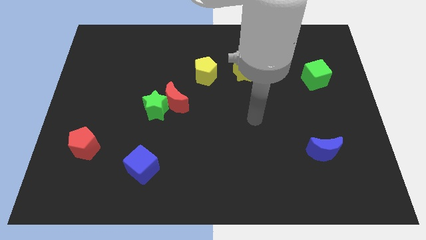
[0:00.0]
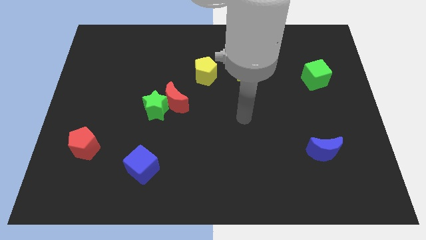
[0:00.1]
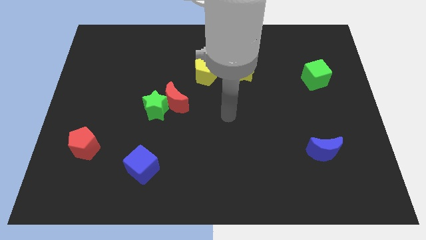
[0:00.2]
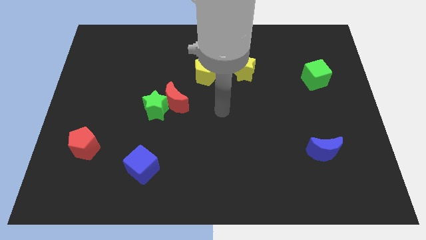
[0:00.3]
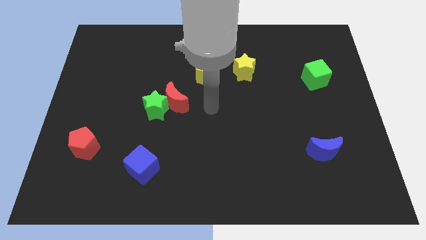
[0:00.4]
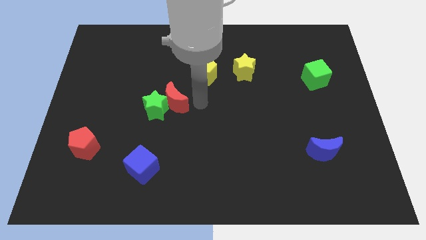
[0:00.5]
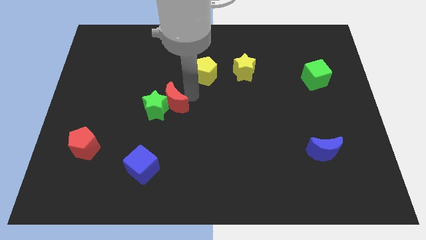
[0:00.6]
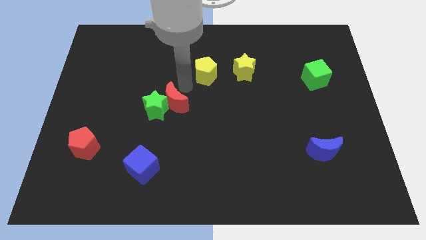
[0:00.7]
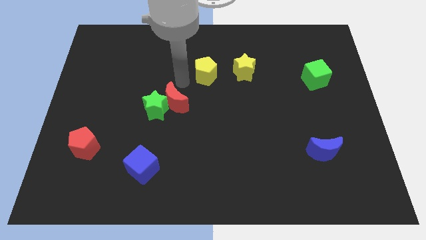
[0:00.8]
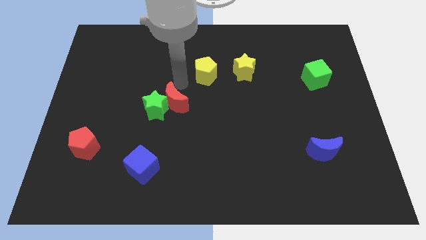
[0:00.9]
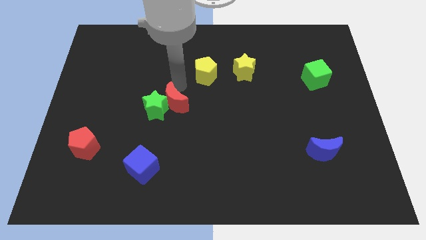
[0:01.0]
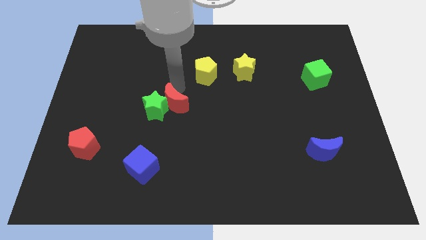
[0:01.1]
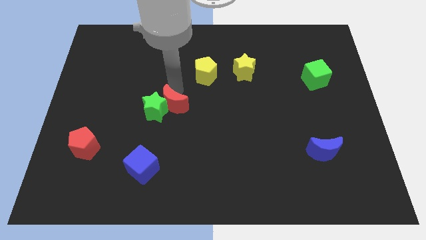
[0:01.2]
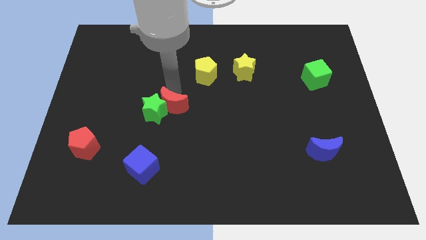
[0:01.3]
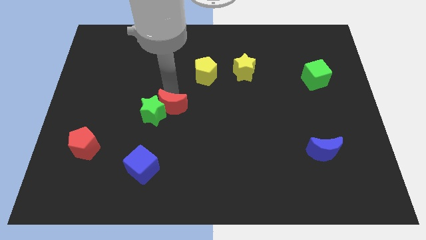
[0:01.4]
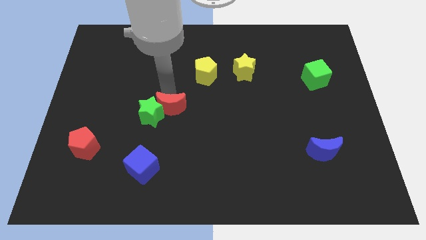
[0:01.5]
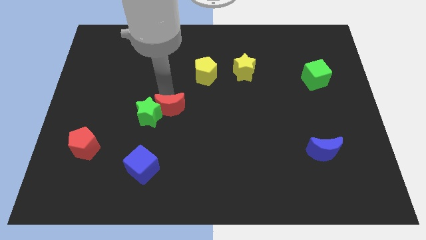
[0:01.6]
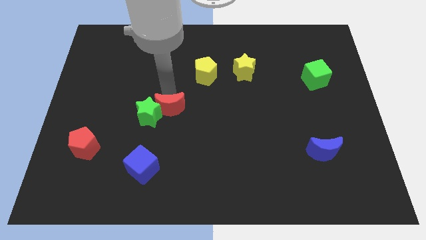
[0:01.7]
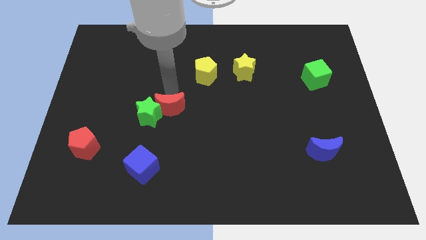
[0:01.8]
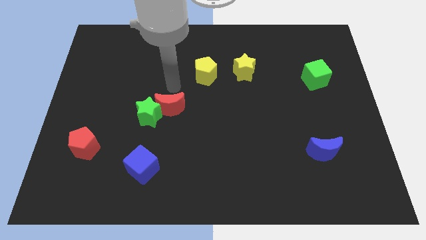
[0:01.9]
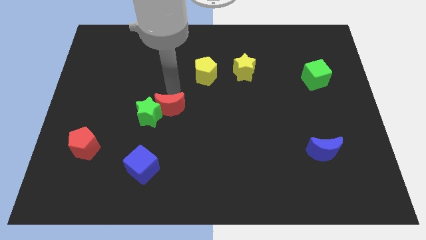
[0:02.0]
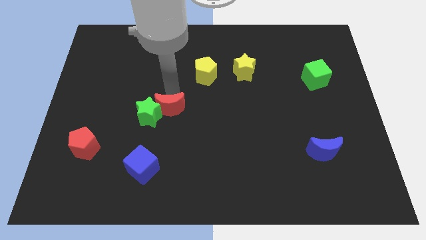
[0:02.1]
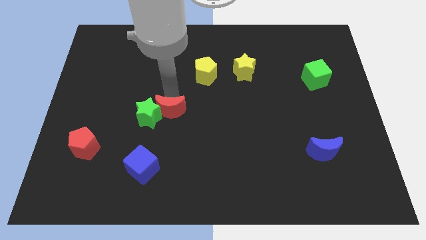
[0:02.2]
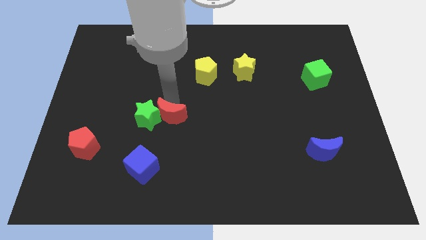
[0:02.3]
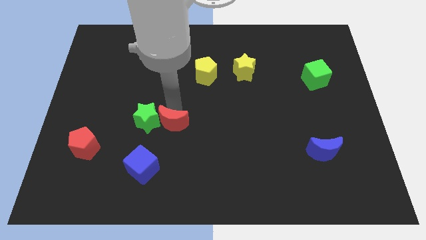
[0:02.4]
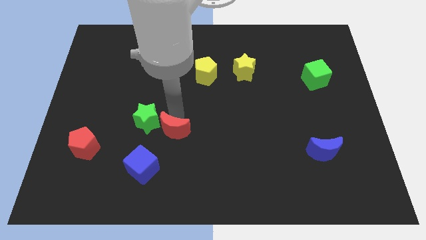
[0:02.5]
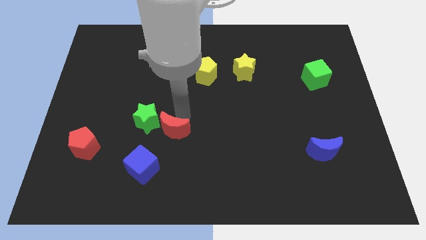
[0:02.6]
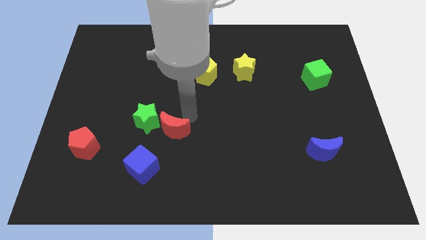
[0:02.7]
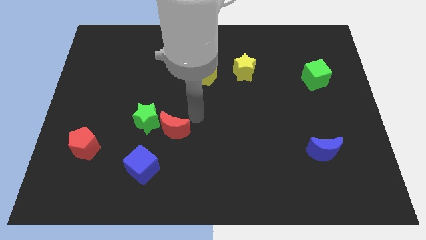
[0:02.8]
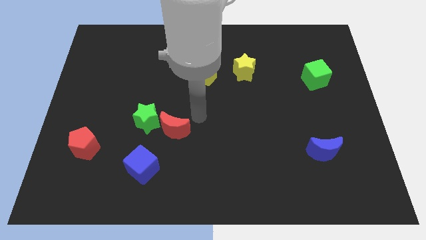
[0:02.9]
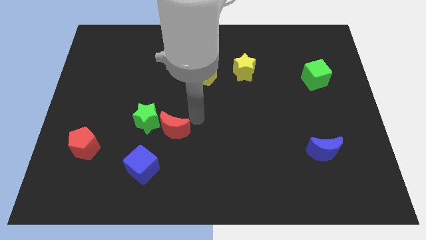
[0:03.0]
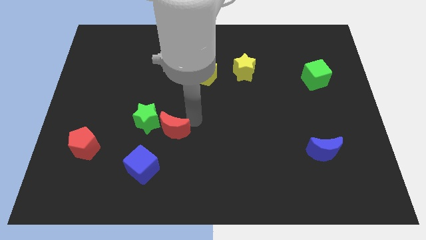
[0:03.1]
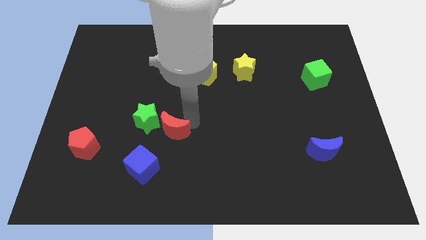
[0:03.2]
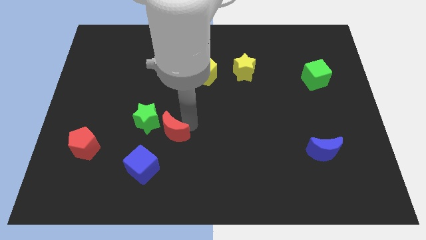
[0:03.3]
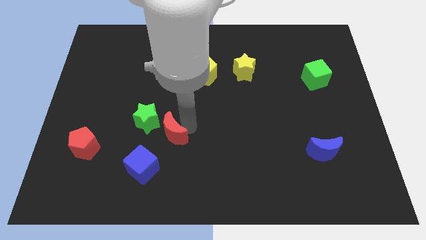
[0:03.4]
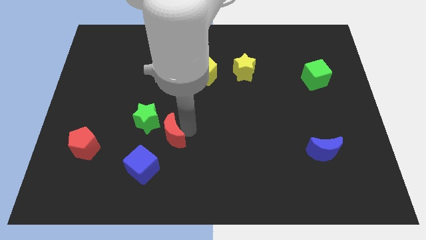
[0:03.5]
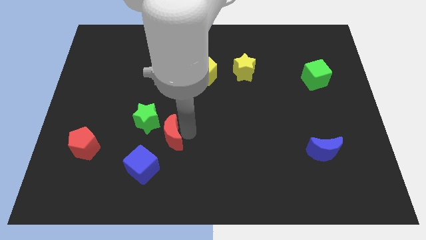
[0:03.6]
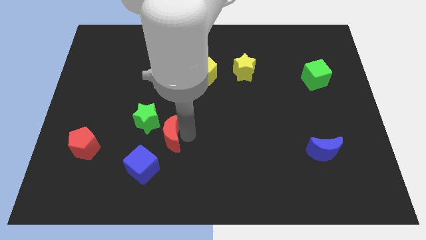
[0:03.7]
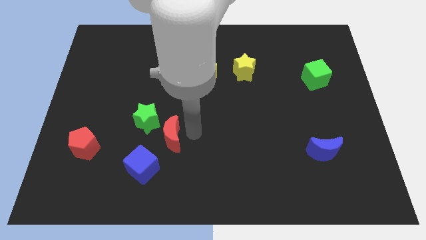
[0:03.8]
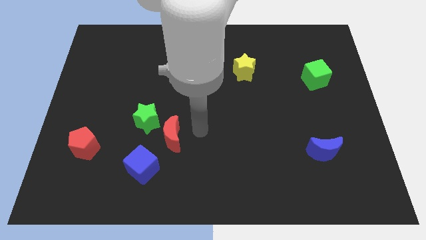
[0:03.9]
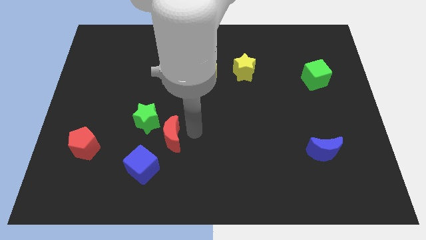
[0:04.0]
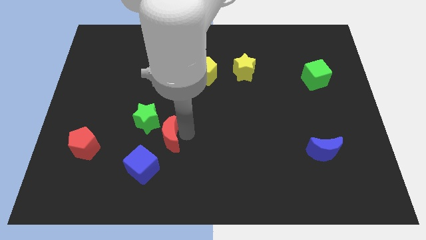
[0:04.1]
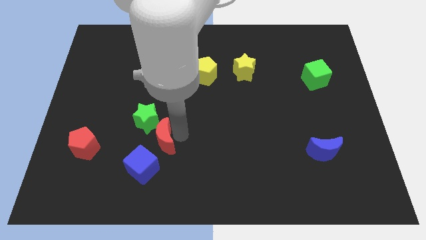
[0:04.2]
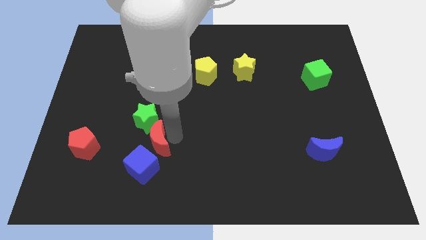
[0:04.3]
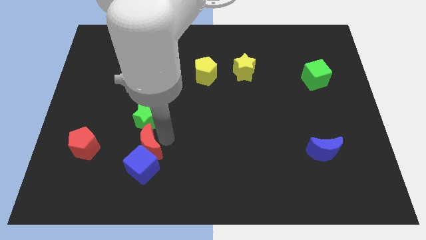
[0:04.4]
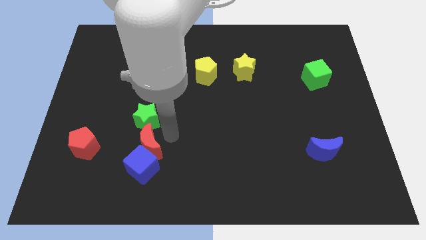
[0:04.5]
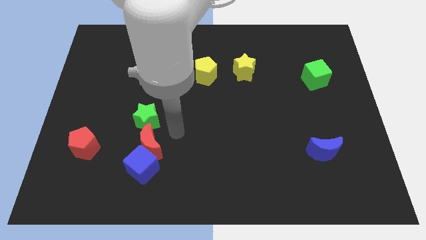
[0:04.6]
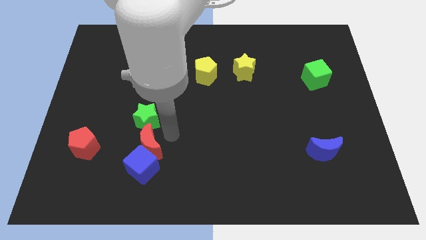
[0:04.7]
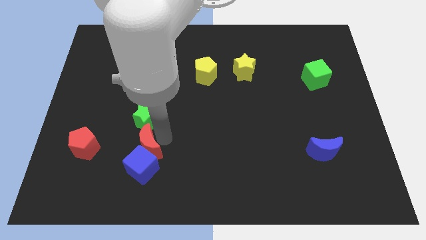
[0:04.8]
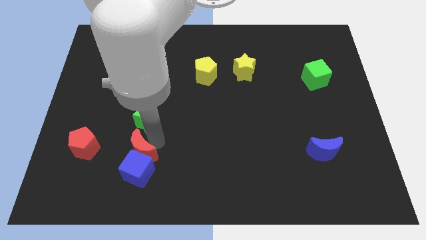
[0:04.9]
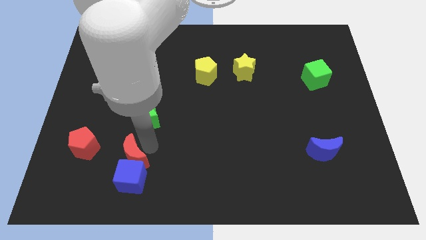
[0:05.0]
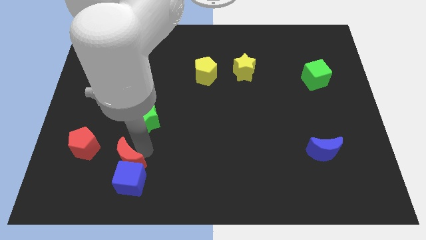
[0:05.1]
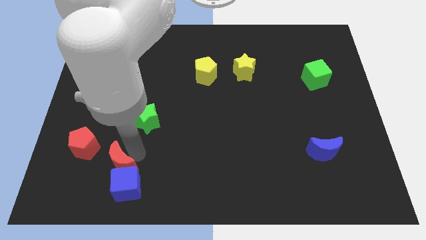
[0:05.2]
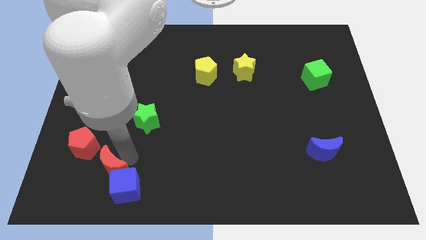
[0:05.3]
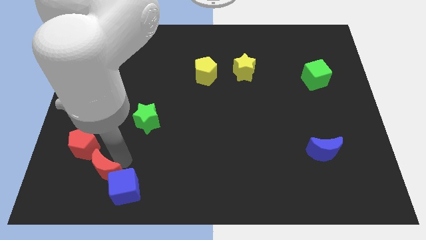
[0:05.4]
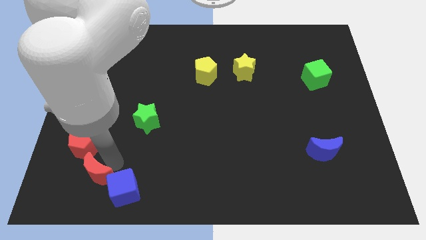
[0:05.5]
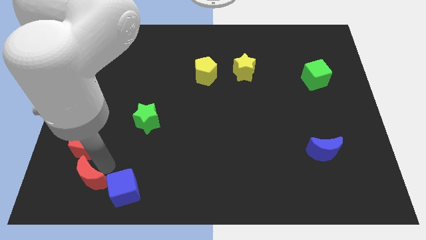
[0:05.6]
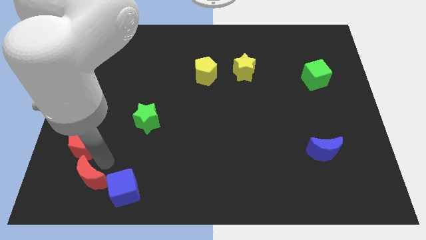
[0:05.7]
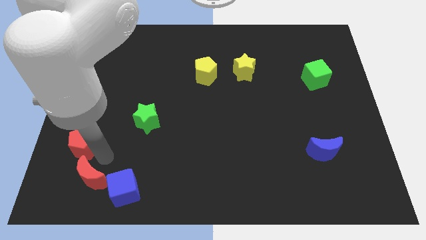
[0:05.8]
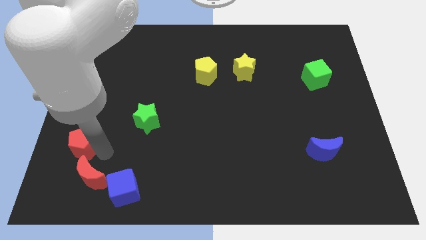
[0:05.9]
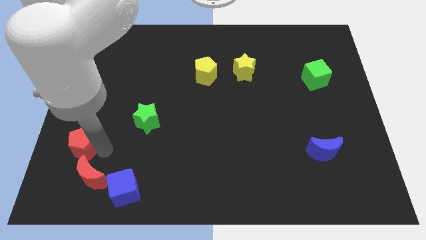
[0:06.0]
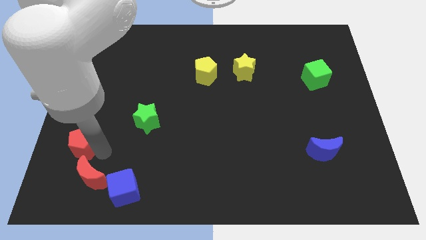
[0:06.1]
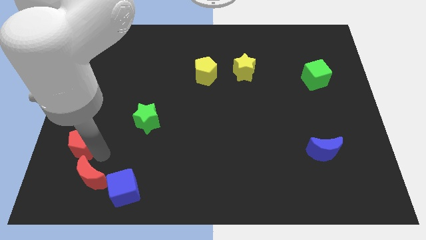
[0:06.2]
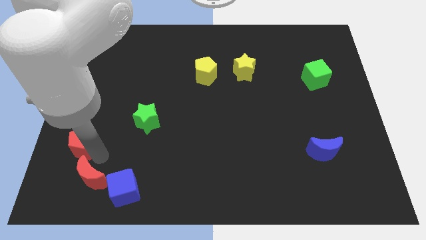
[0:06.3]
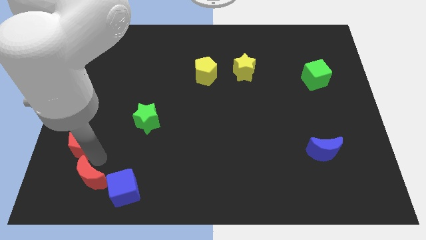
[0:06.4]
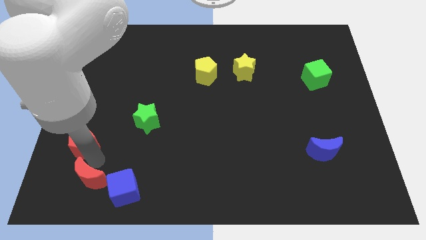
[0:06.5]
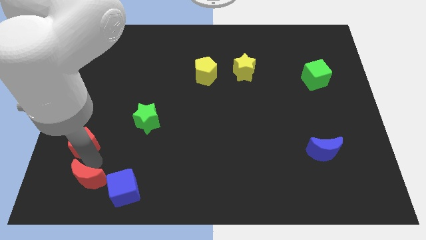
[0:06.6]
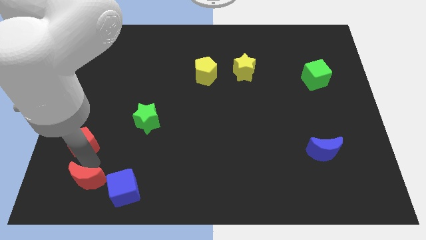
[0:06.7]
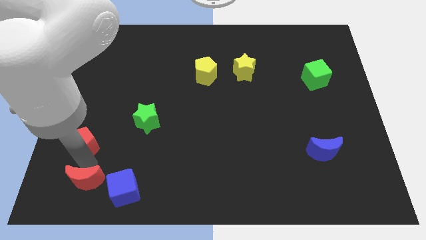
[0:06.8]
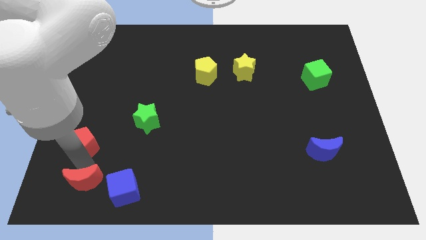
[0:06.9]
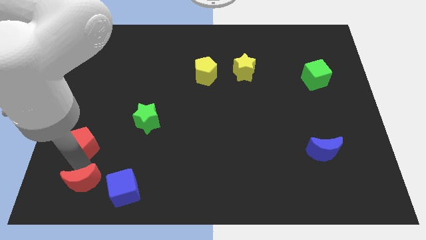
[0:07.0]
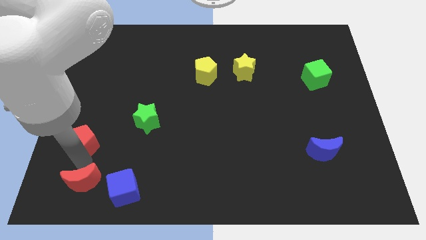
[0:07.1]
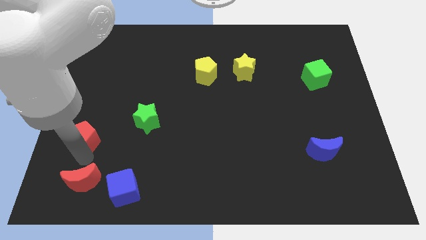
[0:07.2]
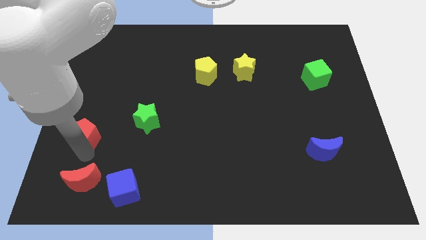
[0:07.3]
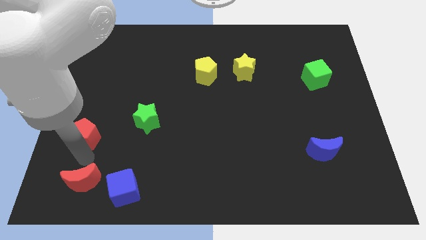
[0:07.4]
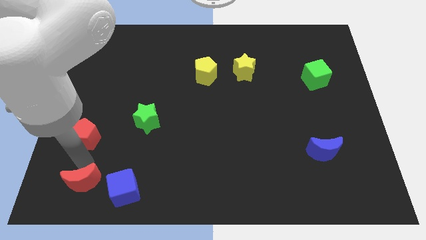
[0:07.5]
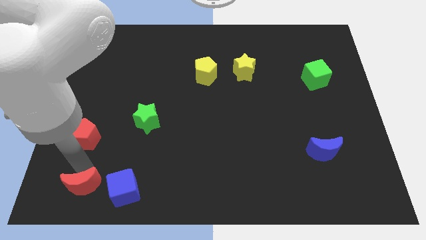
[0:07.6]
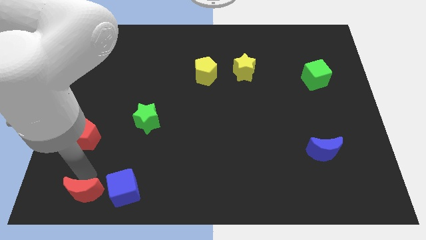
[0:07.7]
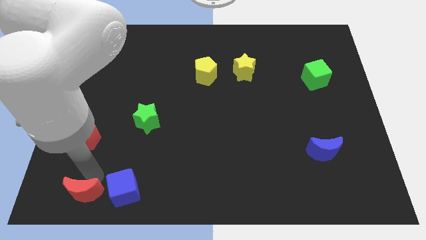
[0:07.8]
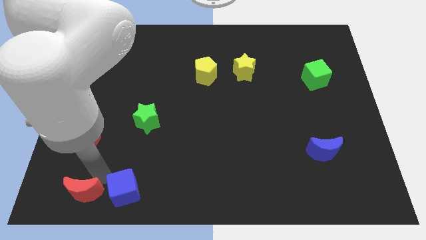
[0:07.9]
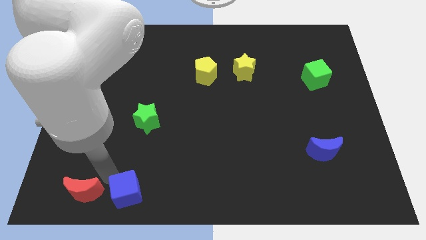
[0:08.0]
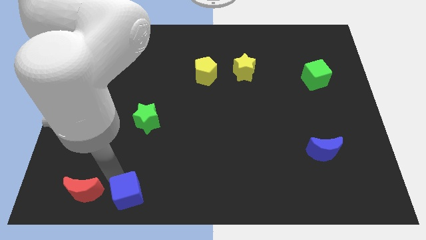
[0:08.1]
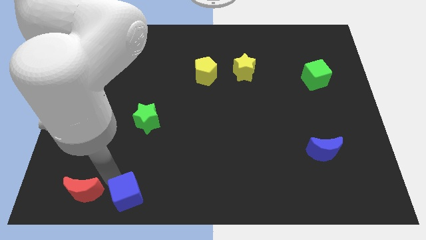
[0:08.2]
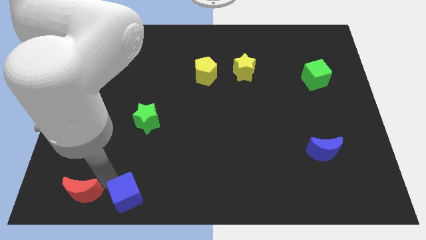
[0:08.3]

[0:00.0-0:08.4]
move the red moon to the lower left corner
